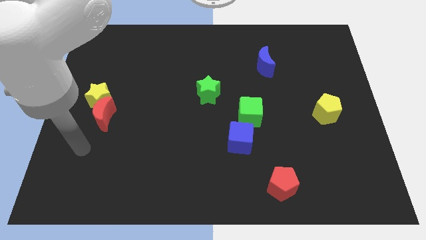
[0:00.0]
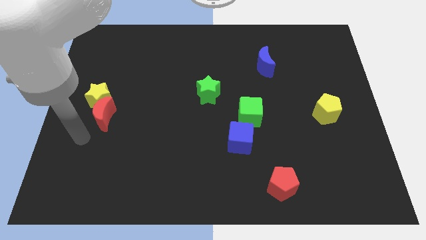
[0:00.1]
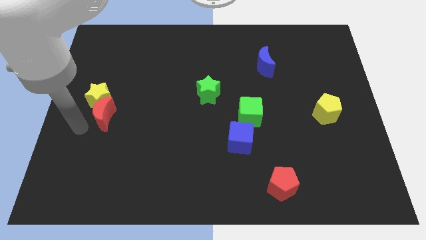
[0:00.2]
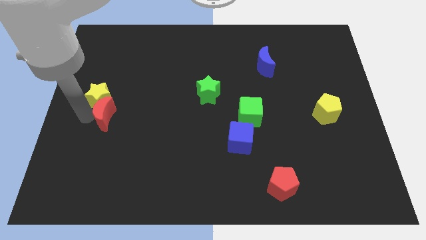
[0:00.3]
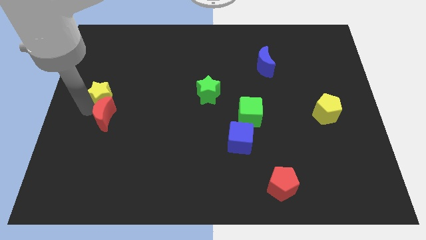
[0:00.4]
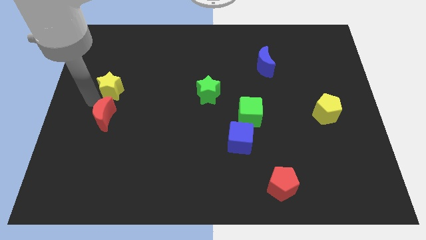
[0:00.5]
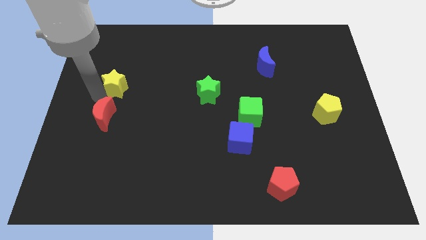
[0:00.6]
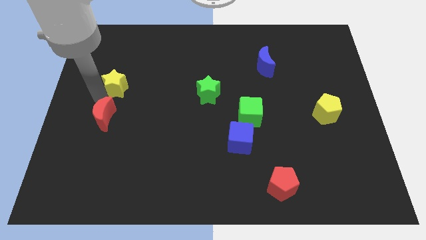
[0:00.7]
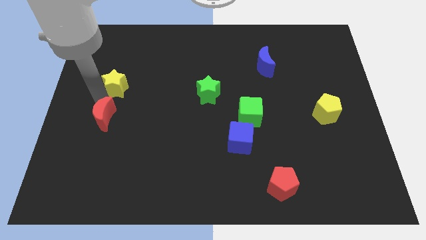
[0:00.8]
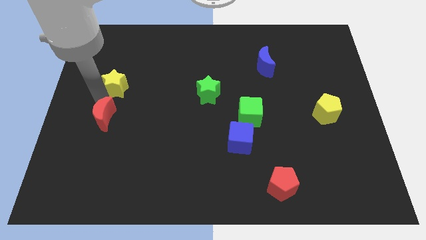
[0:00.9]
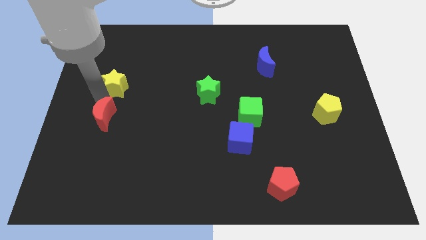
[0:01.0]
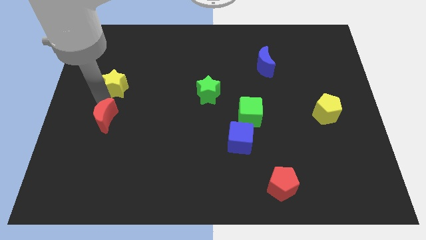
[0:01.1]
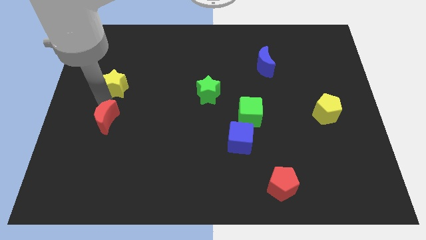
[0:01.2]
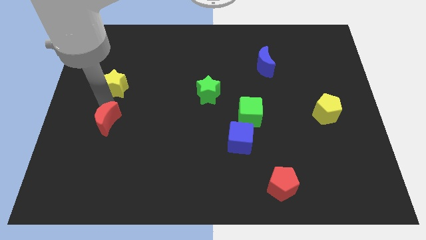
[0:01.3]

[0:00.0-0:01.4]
move the red moon away from the yellow star

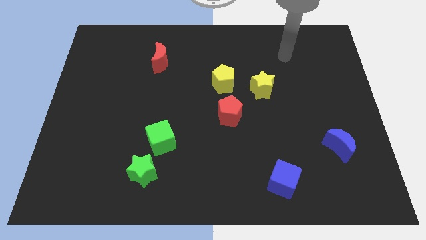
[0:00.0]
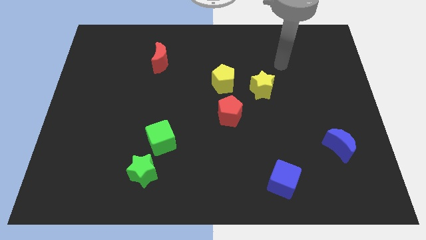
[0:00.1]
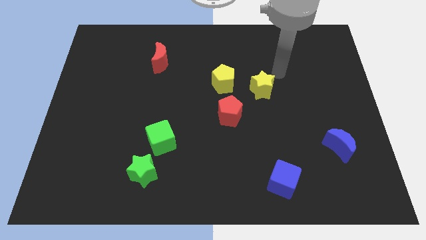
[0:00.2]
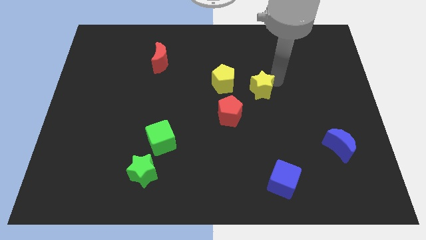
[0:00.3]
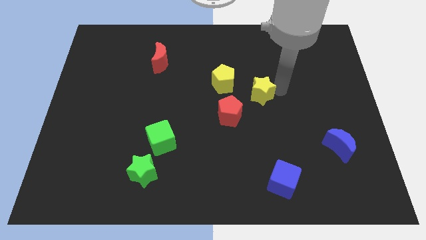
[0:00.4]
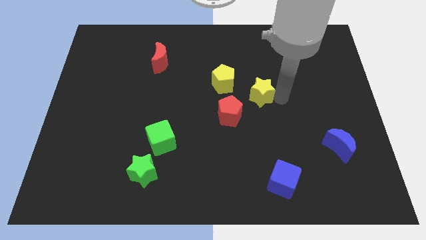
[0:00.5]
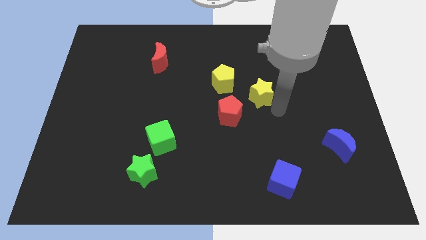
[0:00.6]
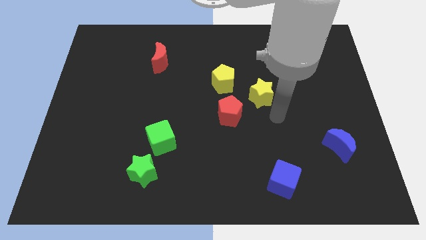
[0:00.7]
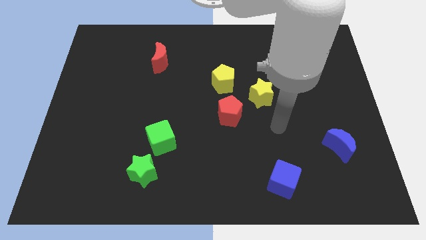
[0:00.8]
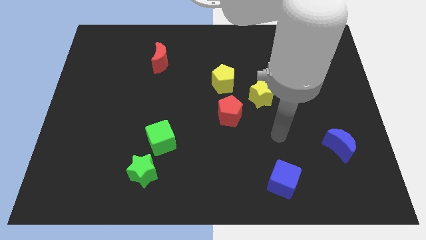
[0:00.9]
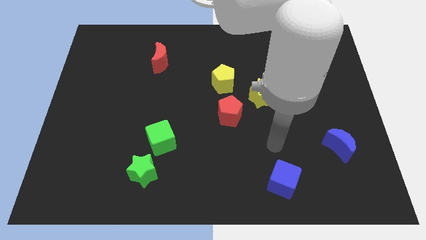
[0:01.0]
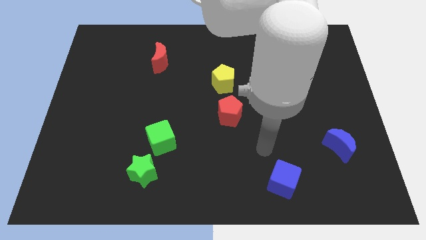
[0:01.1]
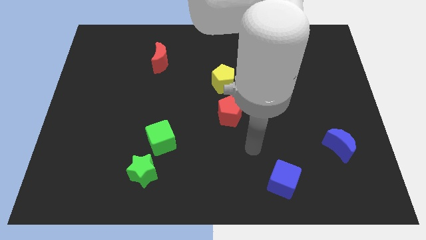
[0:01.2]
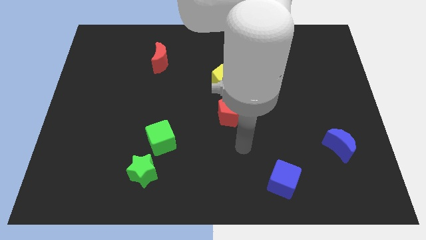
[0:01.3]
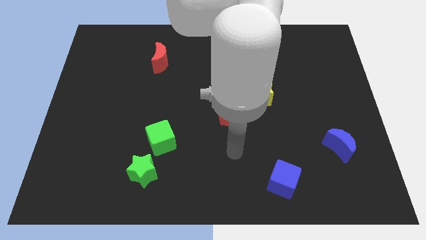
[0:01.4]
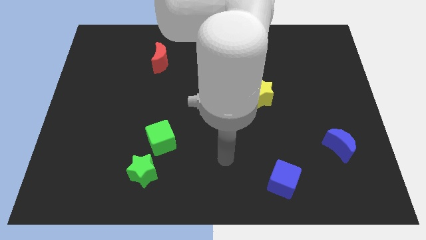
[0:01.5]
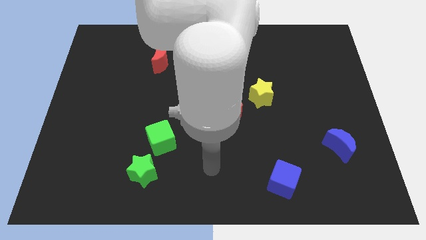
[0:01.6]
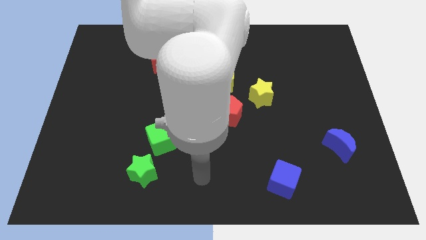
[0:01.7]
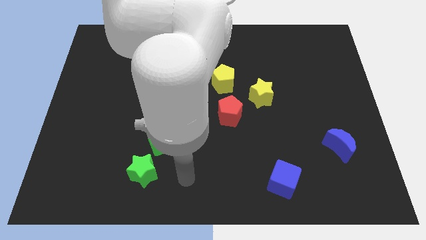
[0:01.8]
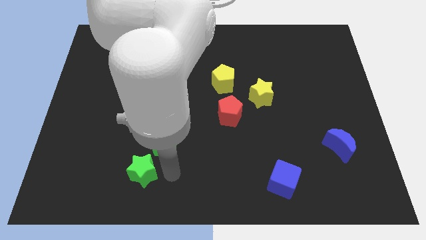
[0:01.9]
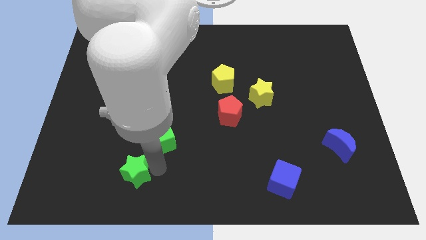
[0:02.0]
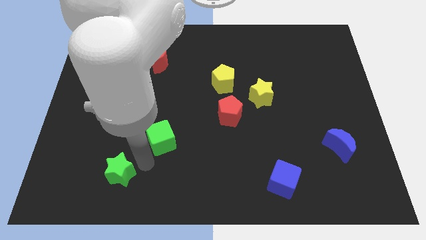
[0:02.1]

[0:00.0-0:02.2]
move the green cube away from the green star

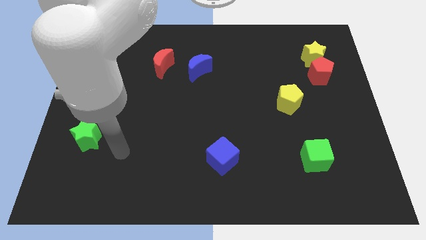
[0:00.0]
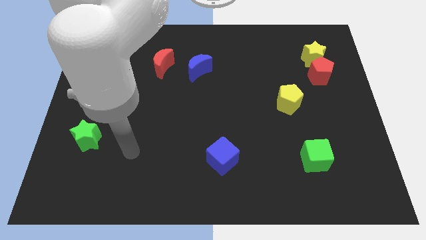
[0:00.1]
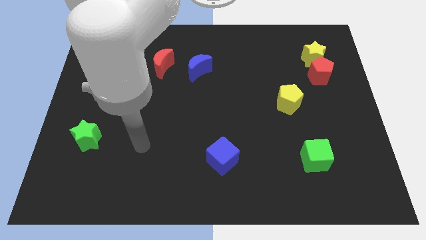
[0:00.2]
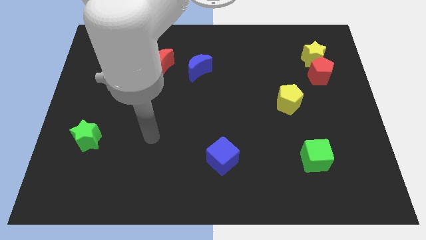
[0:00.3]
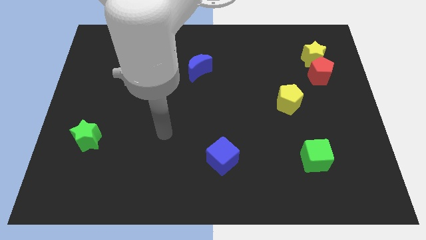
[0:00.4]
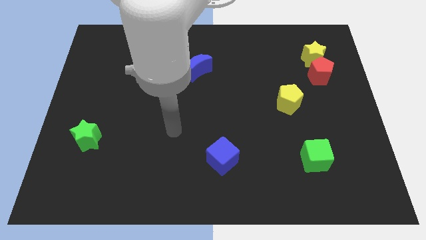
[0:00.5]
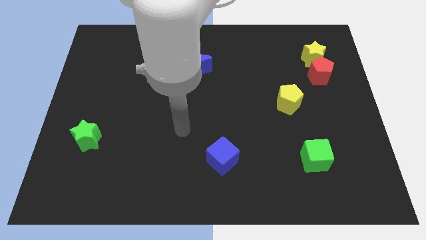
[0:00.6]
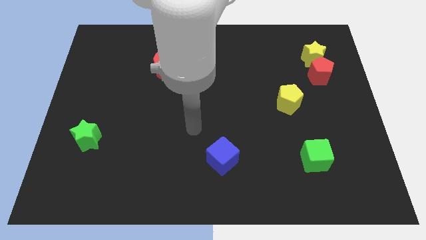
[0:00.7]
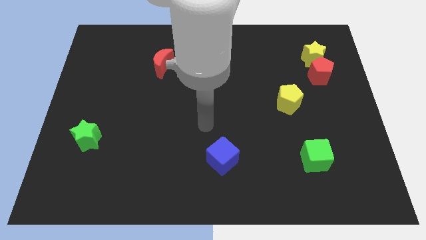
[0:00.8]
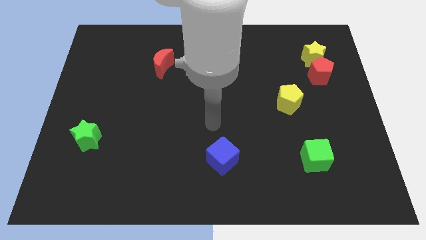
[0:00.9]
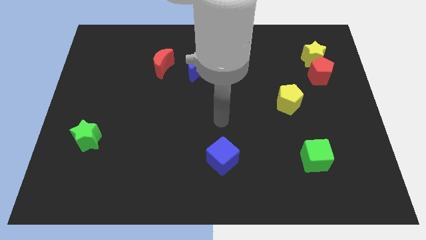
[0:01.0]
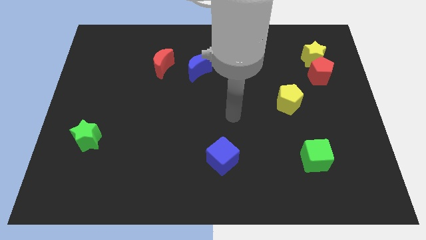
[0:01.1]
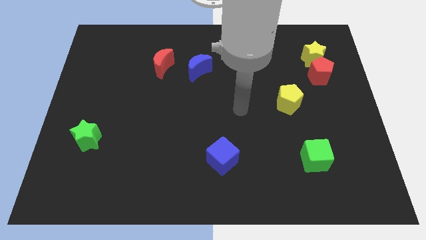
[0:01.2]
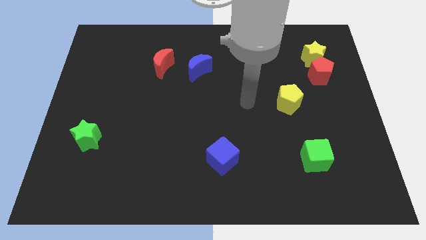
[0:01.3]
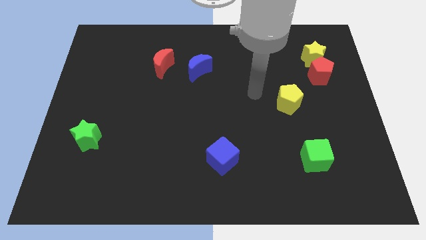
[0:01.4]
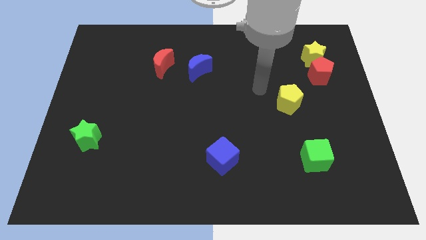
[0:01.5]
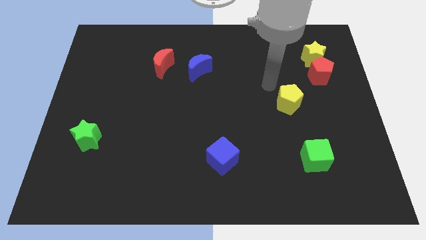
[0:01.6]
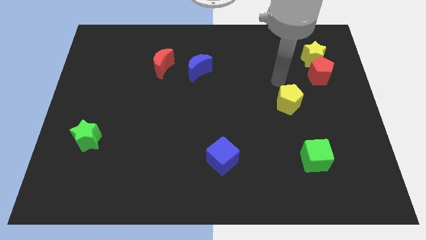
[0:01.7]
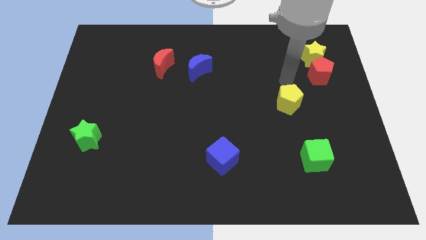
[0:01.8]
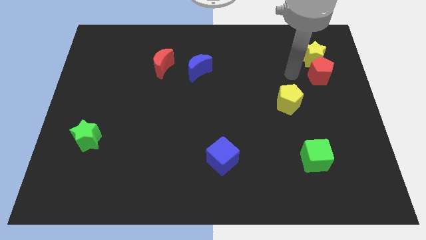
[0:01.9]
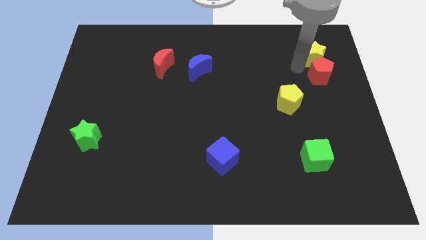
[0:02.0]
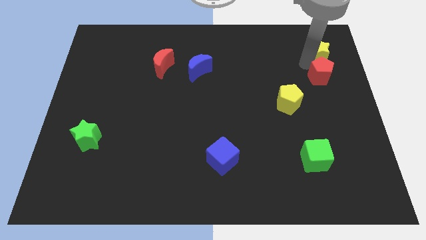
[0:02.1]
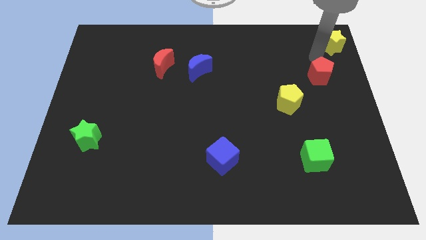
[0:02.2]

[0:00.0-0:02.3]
separate the red pentagon from the yellow star

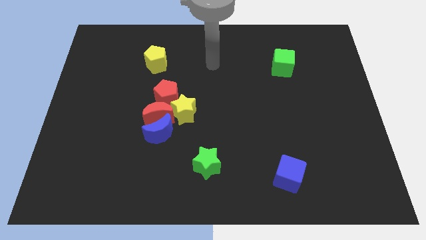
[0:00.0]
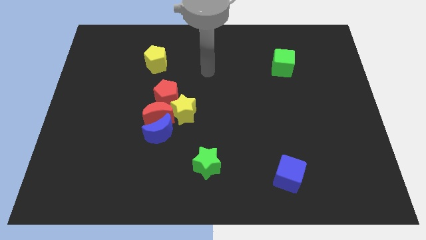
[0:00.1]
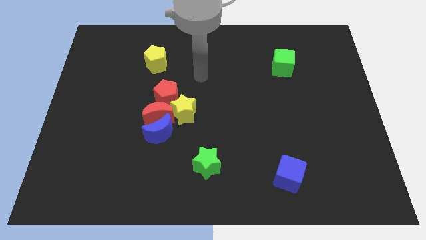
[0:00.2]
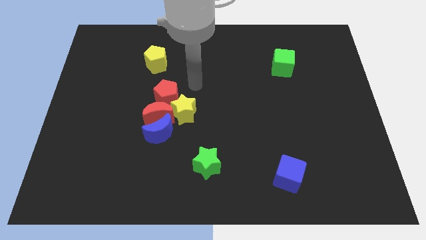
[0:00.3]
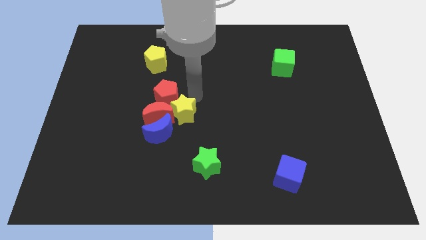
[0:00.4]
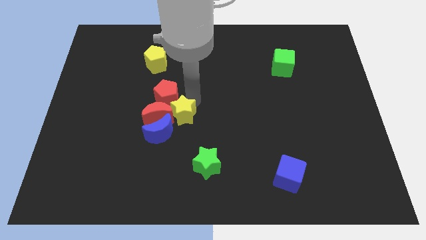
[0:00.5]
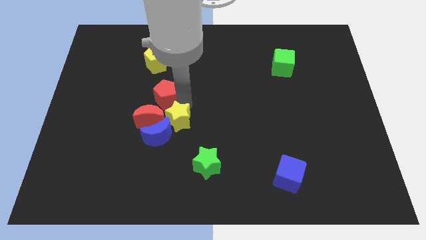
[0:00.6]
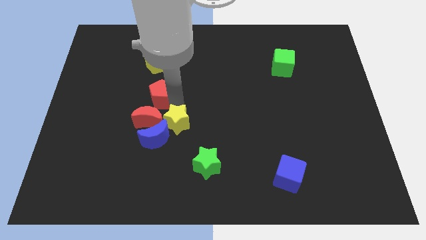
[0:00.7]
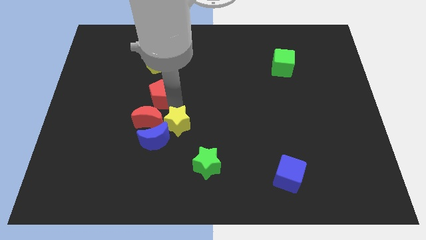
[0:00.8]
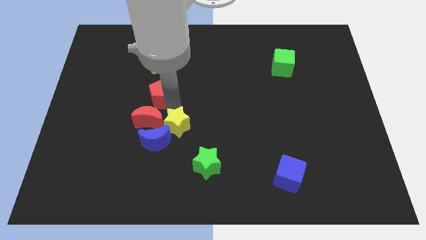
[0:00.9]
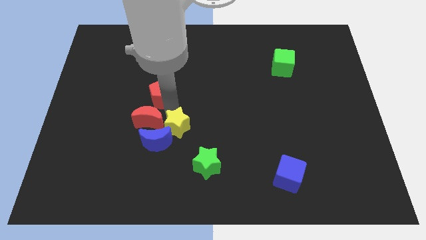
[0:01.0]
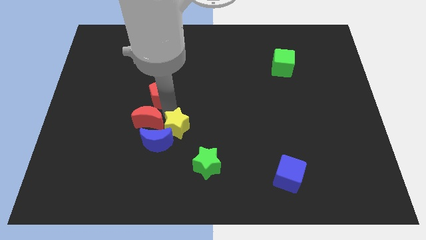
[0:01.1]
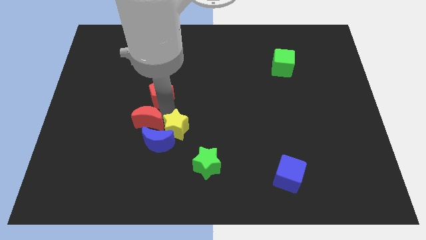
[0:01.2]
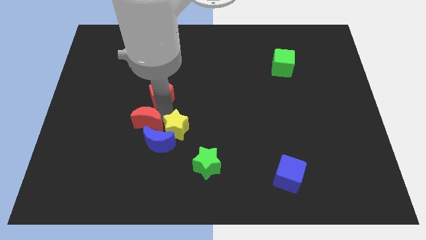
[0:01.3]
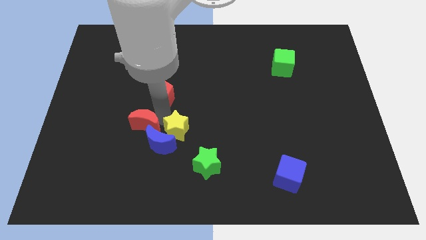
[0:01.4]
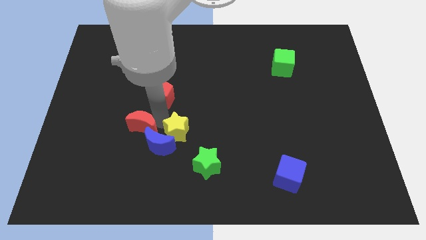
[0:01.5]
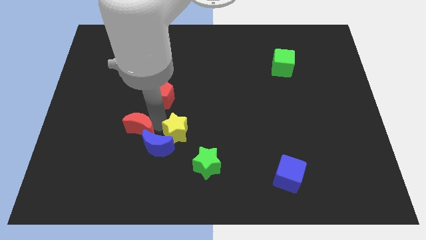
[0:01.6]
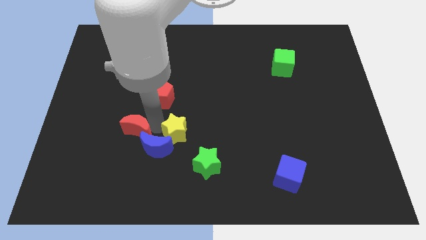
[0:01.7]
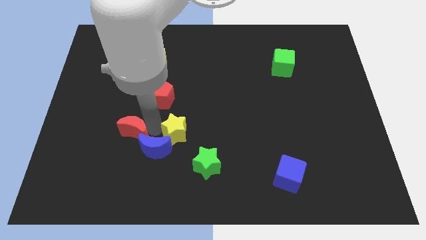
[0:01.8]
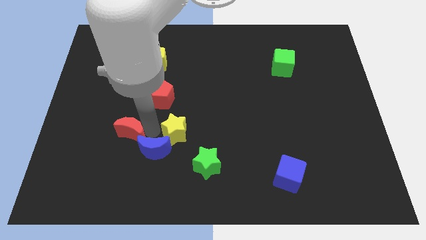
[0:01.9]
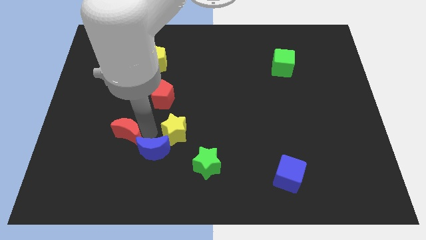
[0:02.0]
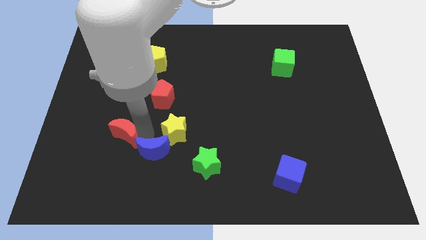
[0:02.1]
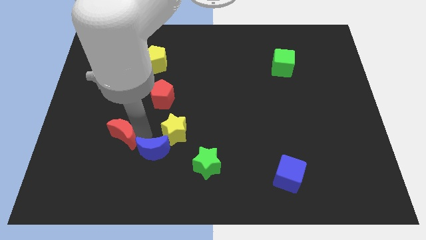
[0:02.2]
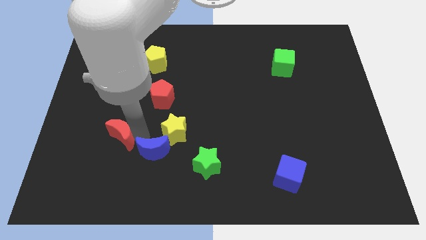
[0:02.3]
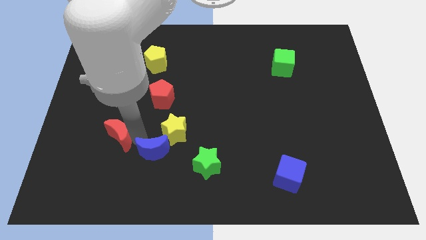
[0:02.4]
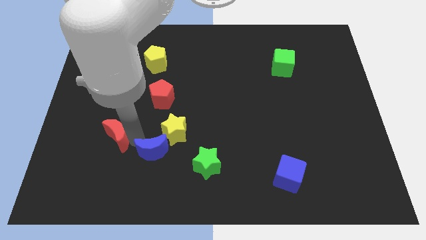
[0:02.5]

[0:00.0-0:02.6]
separate the red moon from the blue moon, yellow star, and red pentagon

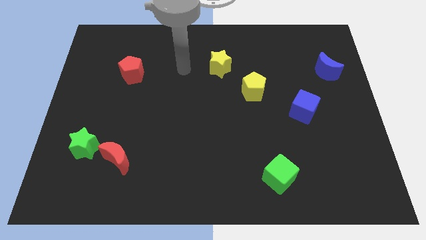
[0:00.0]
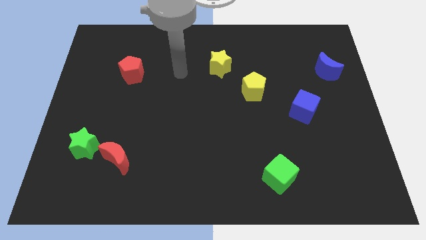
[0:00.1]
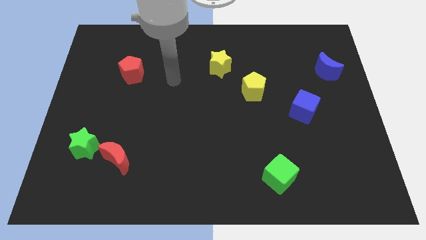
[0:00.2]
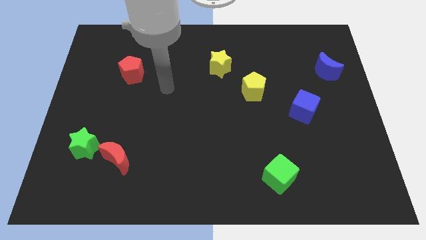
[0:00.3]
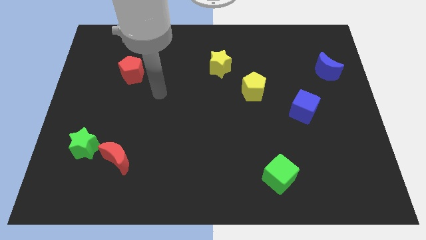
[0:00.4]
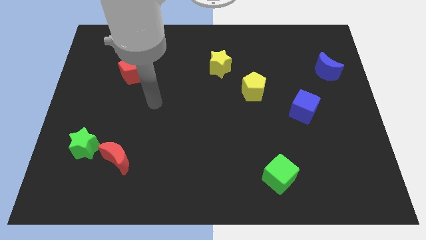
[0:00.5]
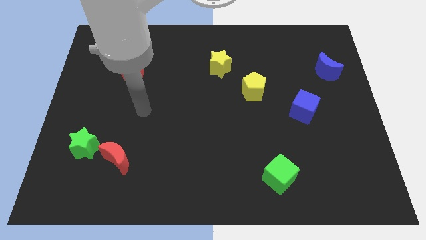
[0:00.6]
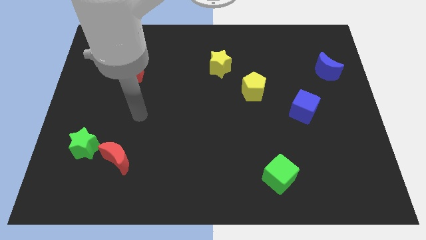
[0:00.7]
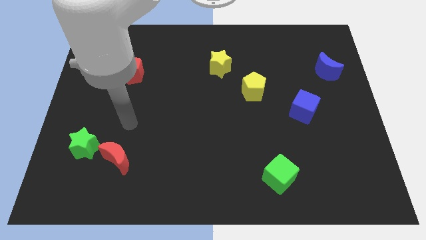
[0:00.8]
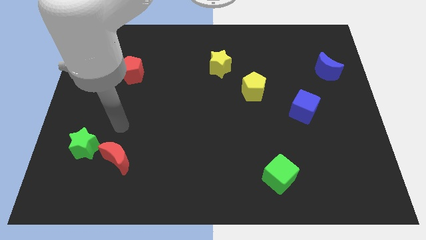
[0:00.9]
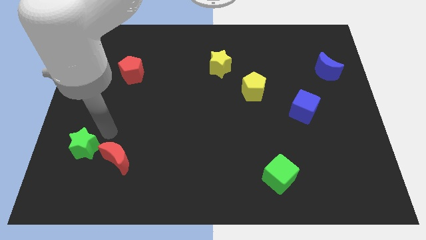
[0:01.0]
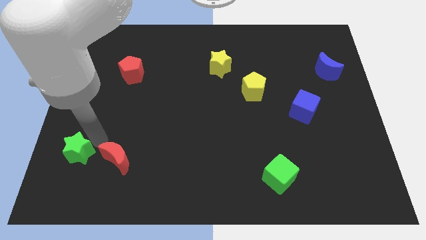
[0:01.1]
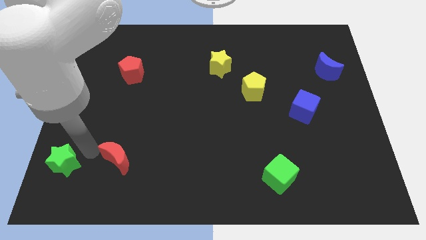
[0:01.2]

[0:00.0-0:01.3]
separate the red moon from the green star
